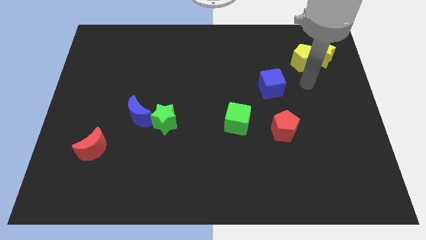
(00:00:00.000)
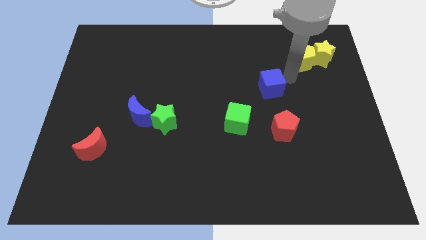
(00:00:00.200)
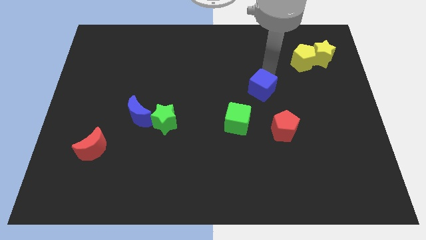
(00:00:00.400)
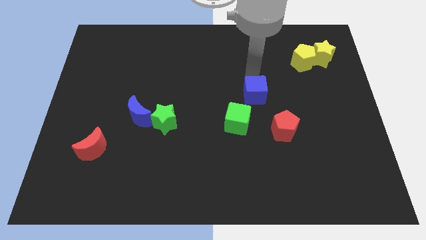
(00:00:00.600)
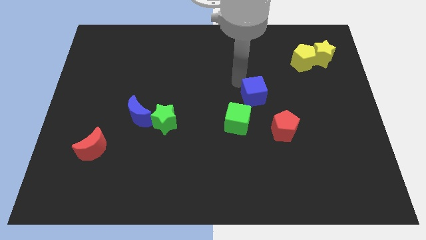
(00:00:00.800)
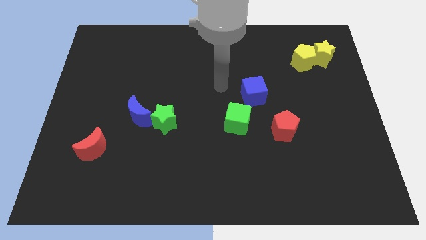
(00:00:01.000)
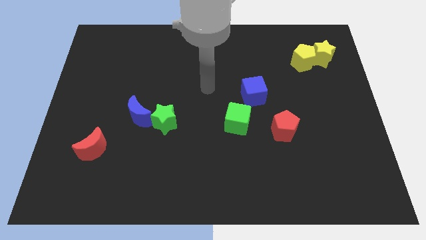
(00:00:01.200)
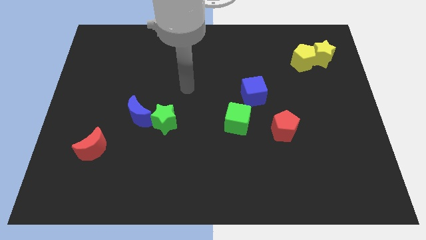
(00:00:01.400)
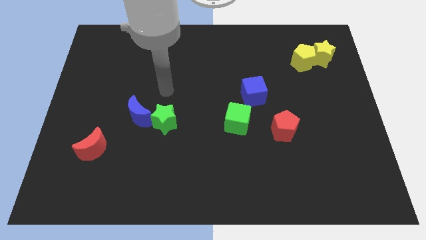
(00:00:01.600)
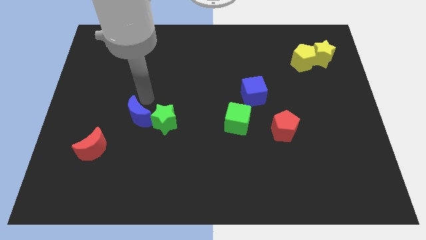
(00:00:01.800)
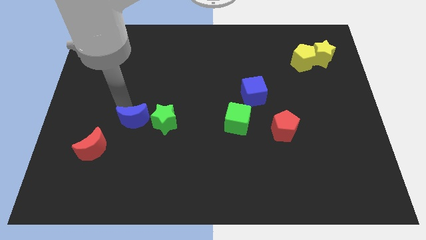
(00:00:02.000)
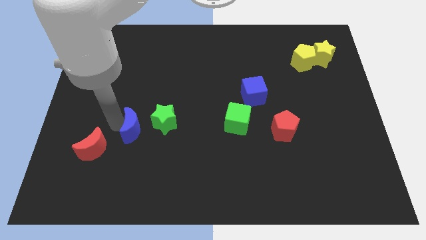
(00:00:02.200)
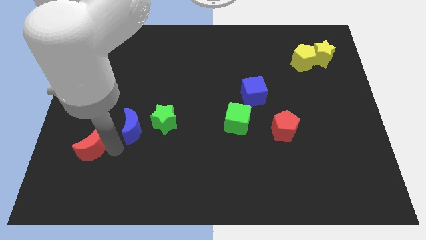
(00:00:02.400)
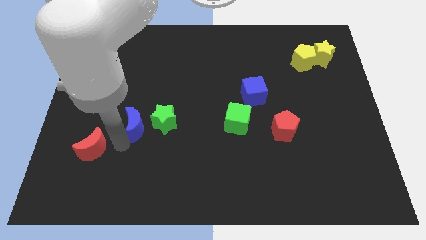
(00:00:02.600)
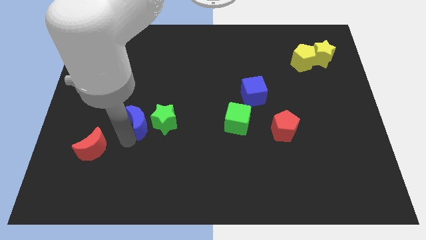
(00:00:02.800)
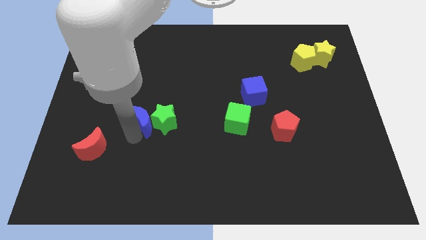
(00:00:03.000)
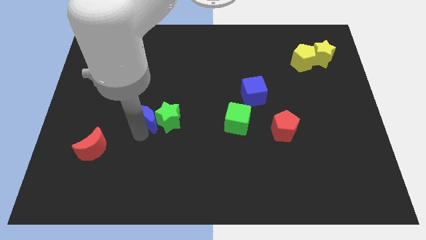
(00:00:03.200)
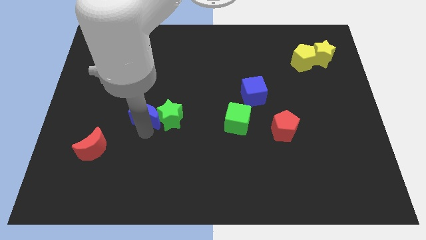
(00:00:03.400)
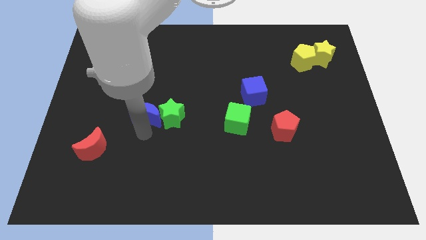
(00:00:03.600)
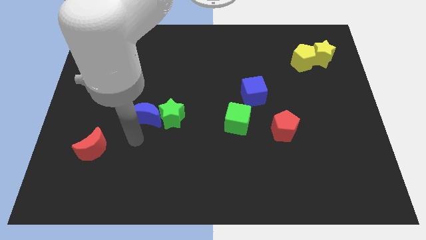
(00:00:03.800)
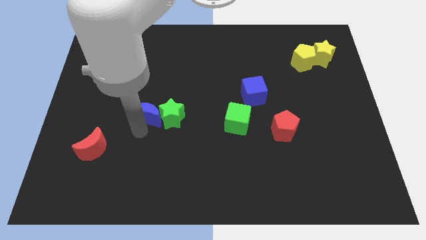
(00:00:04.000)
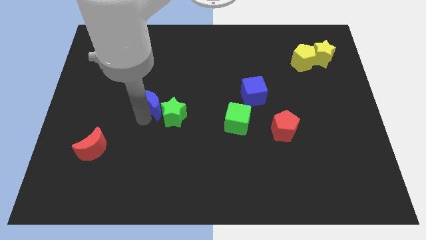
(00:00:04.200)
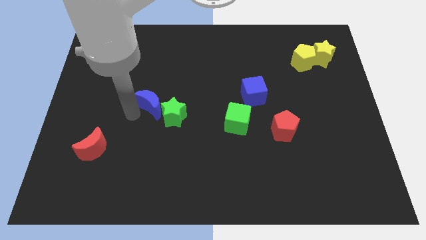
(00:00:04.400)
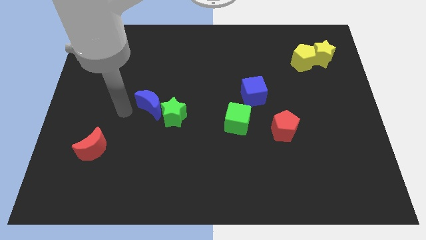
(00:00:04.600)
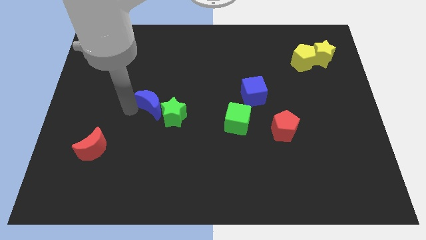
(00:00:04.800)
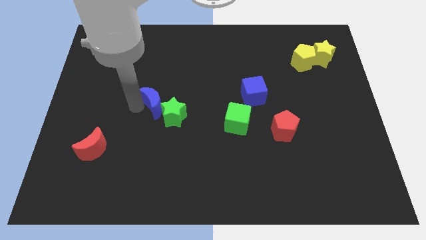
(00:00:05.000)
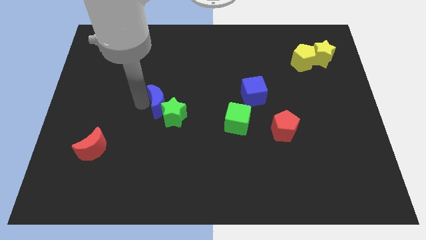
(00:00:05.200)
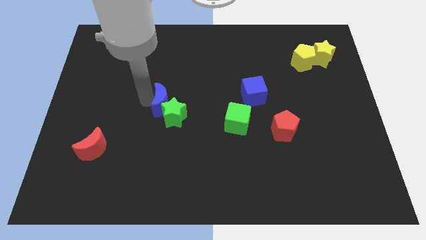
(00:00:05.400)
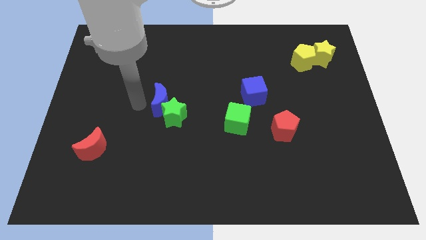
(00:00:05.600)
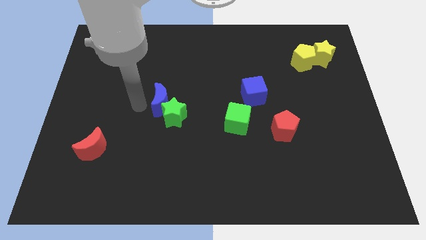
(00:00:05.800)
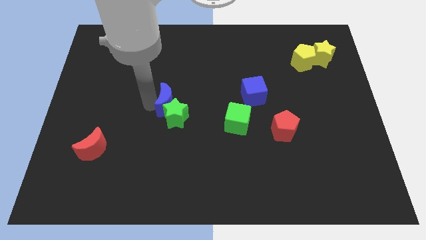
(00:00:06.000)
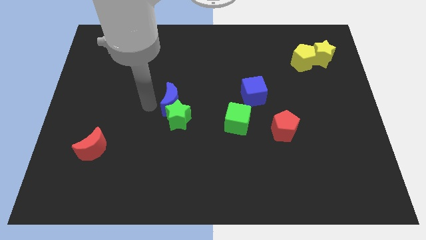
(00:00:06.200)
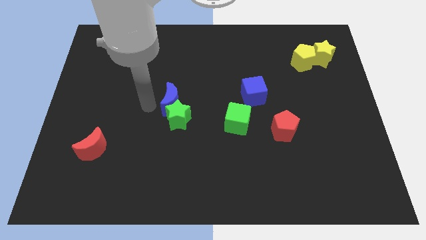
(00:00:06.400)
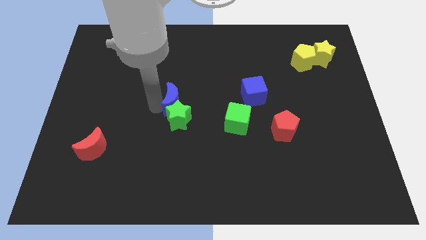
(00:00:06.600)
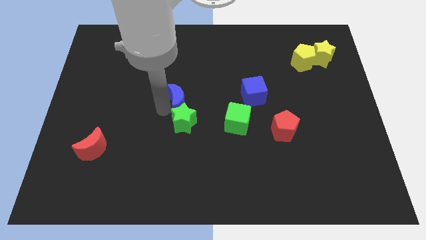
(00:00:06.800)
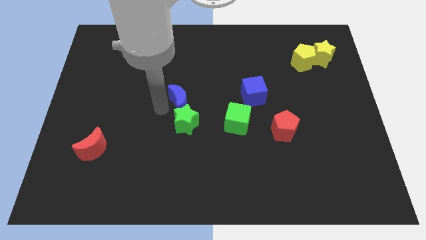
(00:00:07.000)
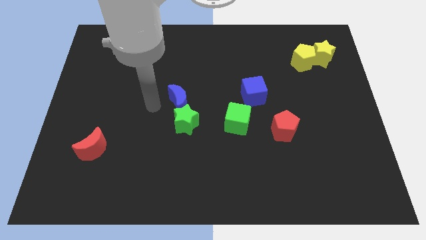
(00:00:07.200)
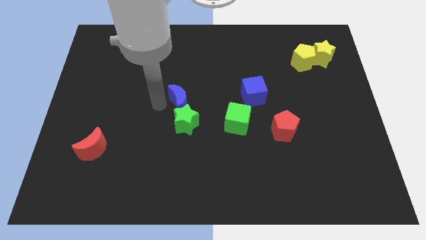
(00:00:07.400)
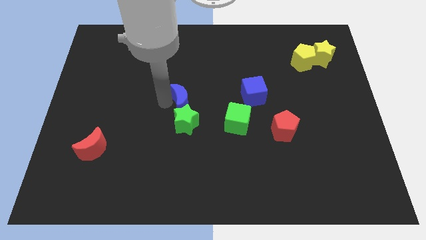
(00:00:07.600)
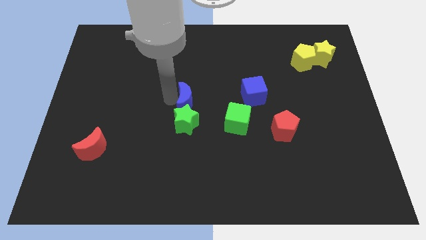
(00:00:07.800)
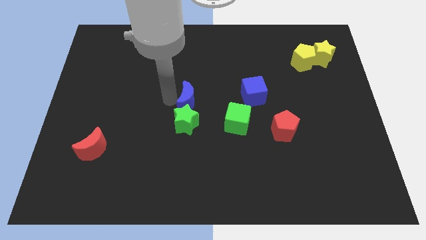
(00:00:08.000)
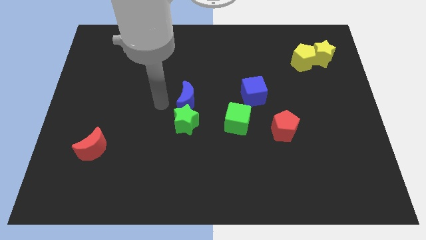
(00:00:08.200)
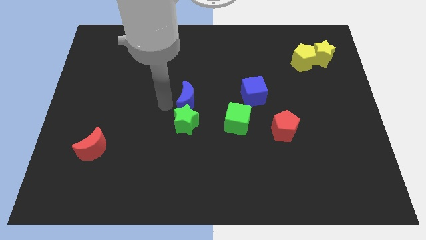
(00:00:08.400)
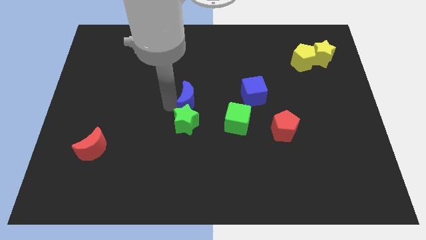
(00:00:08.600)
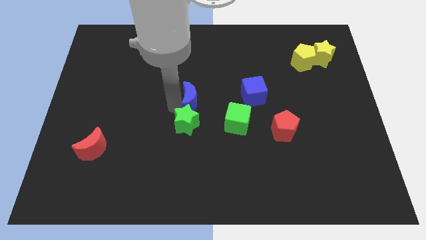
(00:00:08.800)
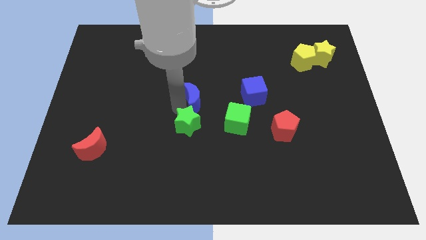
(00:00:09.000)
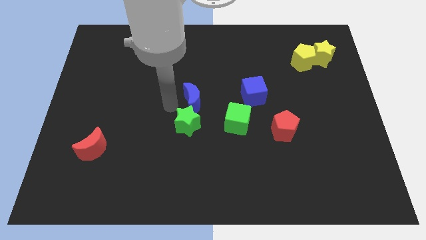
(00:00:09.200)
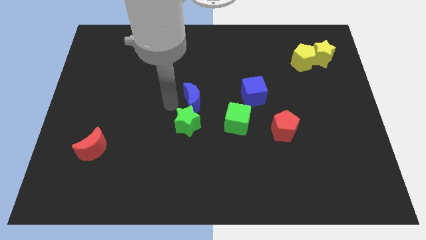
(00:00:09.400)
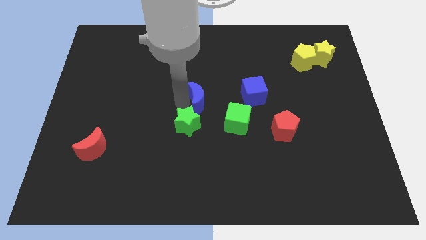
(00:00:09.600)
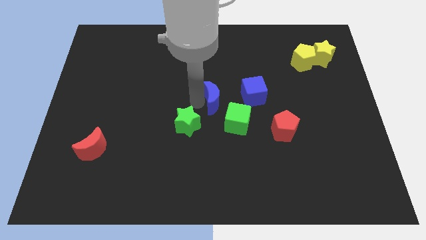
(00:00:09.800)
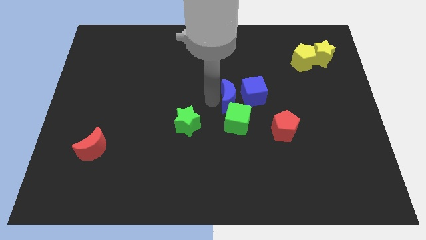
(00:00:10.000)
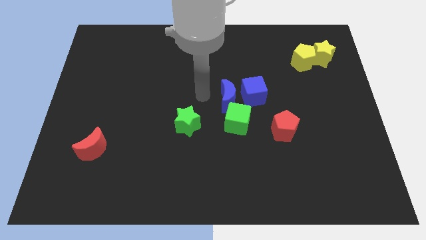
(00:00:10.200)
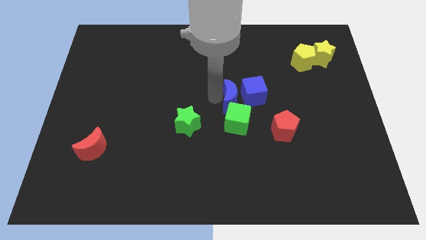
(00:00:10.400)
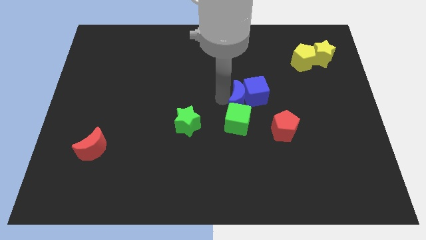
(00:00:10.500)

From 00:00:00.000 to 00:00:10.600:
move the blue moon to the top right side of the green cube
